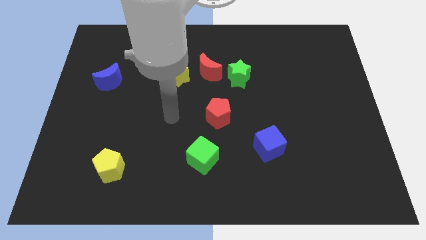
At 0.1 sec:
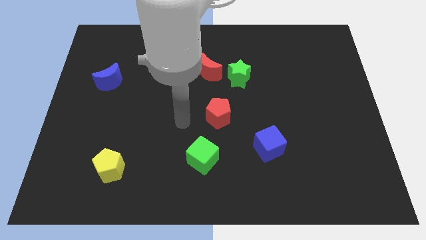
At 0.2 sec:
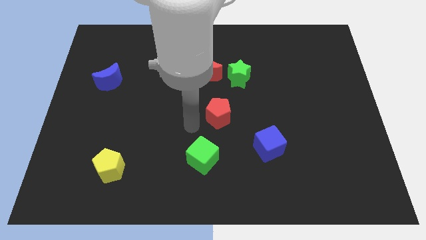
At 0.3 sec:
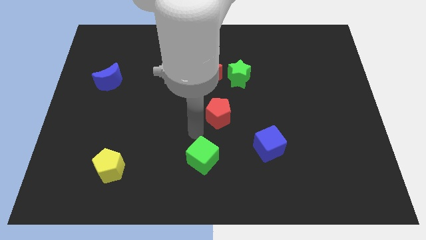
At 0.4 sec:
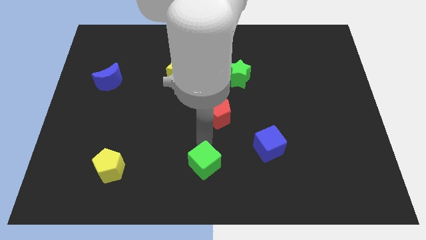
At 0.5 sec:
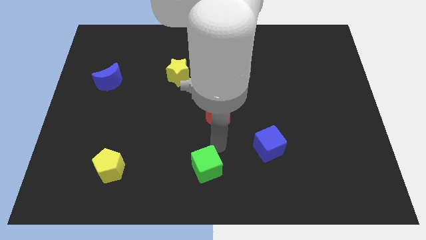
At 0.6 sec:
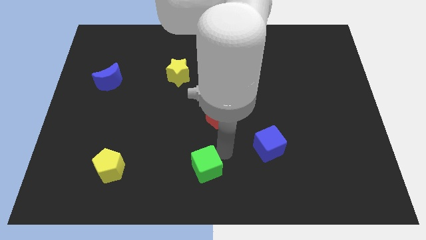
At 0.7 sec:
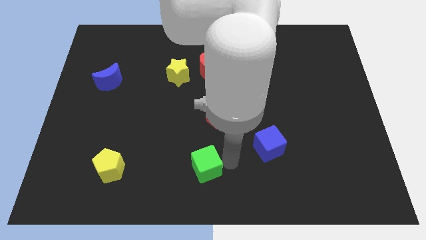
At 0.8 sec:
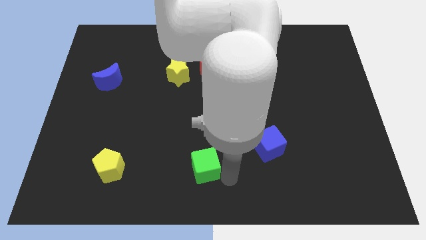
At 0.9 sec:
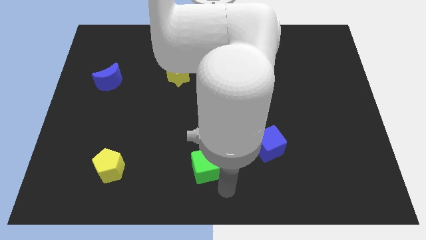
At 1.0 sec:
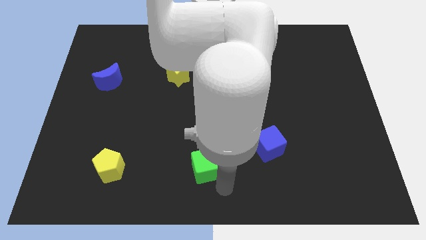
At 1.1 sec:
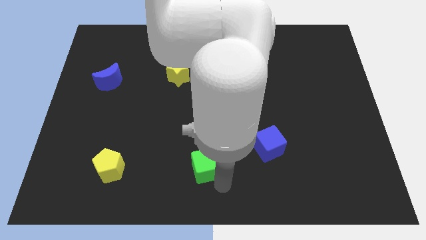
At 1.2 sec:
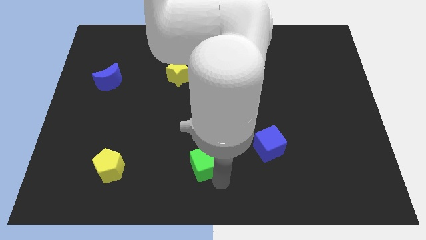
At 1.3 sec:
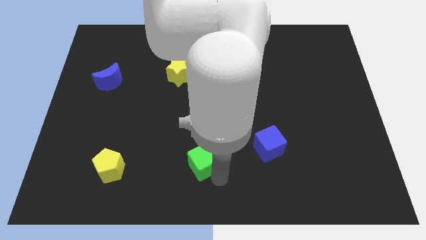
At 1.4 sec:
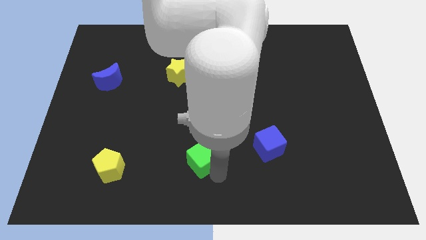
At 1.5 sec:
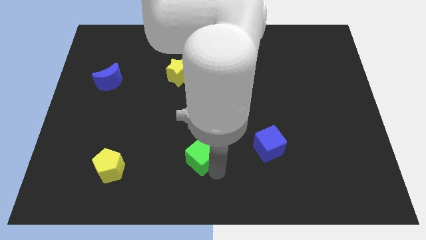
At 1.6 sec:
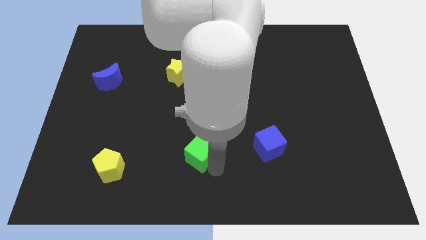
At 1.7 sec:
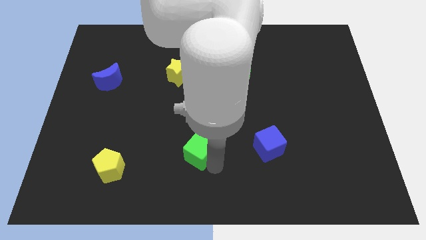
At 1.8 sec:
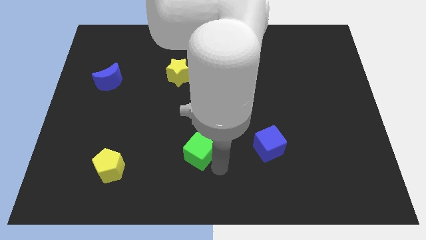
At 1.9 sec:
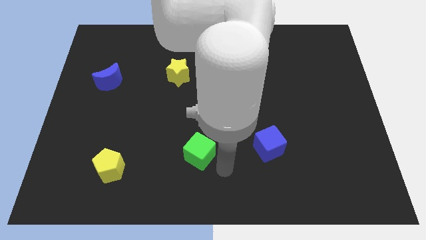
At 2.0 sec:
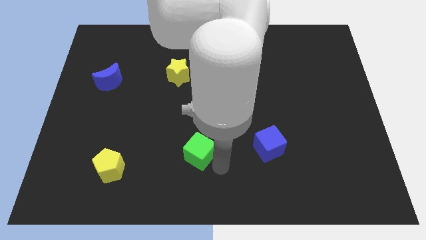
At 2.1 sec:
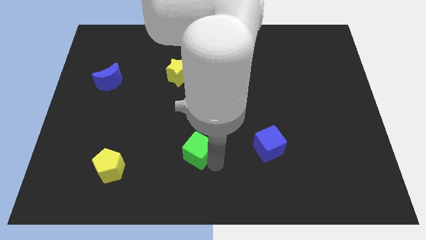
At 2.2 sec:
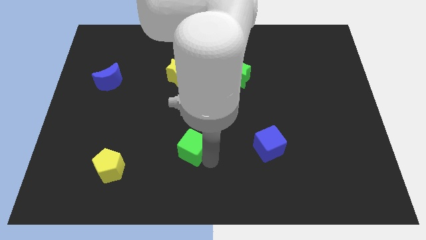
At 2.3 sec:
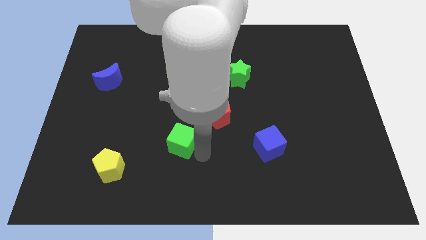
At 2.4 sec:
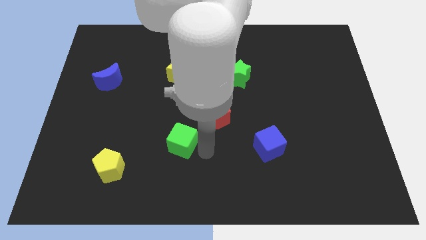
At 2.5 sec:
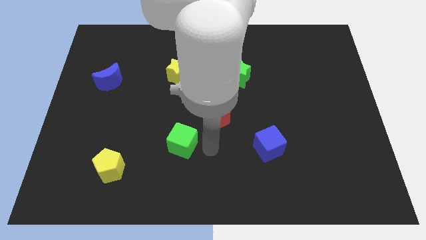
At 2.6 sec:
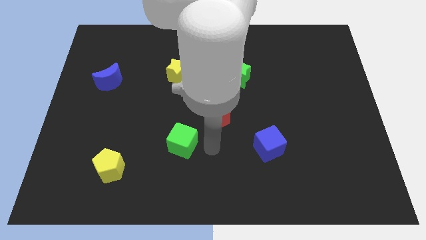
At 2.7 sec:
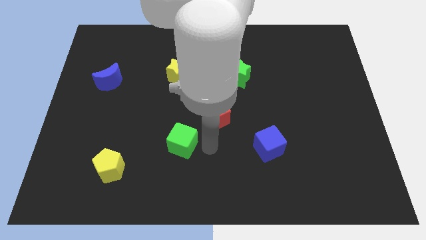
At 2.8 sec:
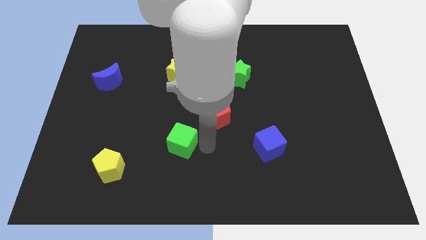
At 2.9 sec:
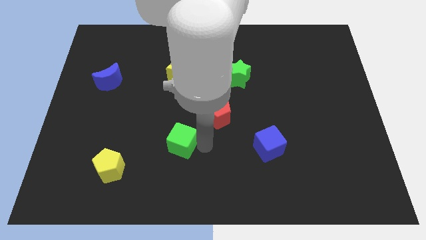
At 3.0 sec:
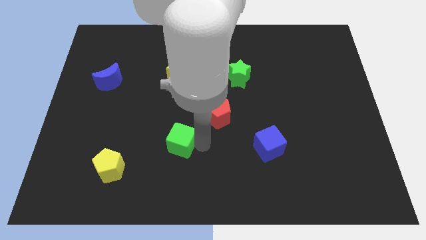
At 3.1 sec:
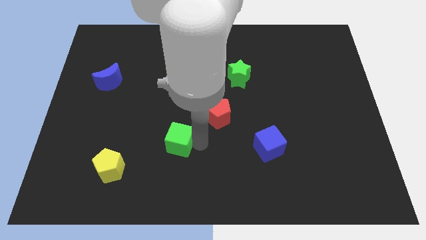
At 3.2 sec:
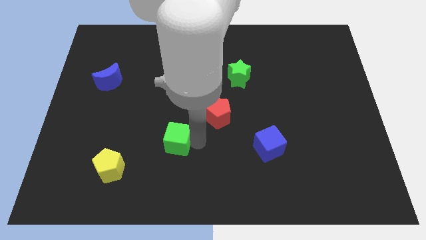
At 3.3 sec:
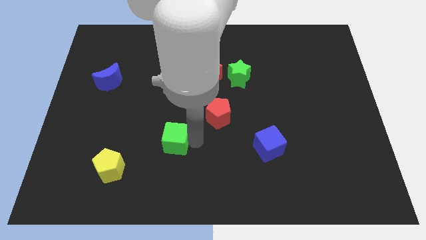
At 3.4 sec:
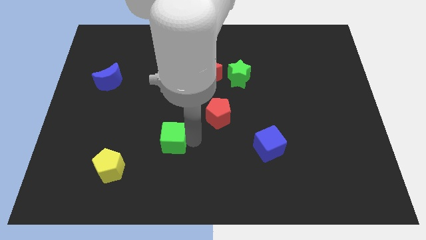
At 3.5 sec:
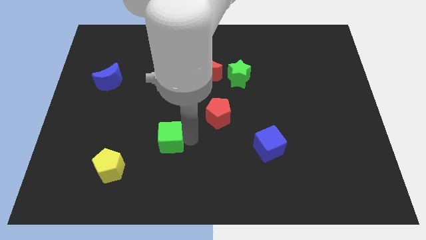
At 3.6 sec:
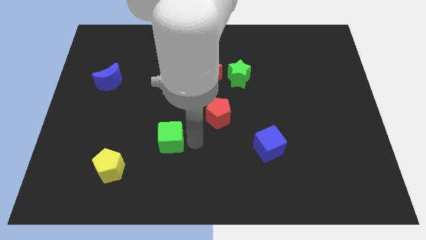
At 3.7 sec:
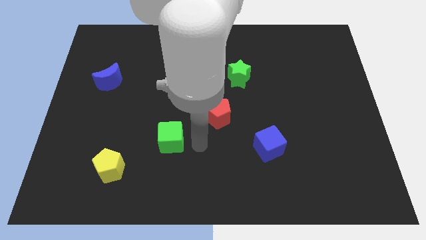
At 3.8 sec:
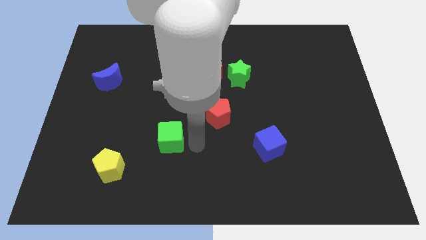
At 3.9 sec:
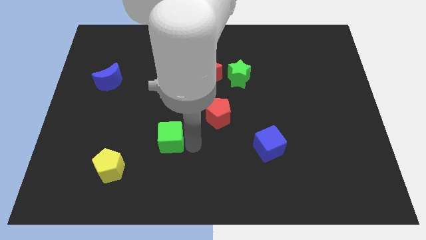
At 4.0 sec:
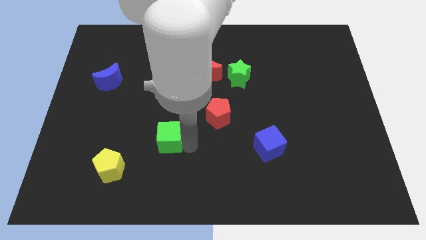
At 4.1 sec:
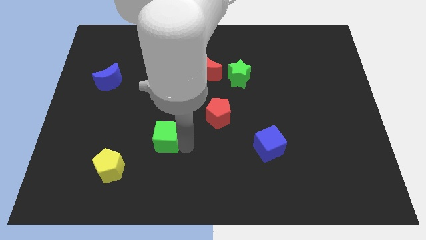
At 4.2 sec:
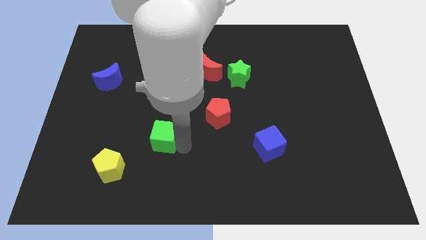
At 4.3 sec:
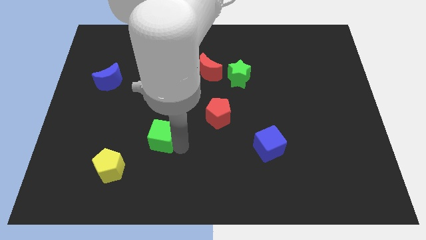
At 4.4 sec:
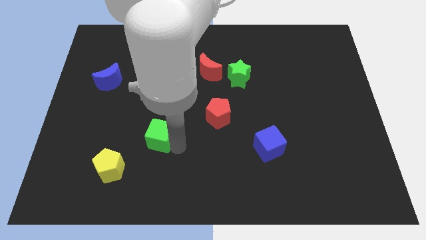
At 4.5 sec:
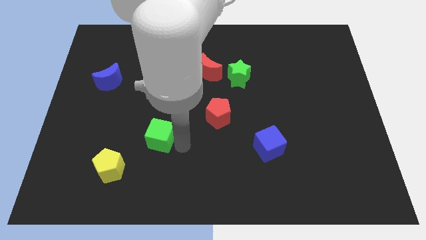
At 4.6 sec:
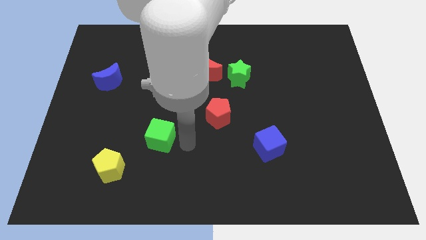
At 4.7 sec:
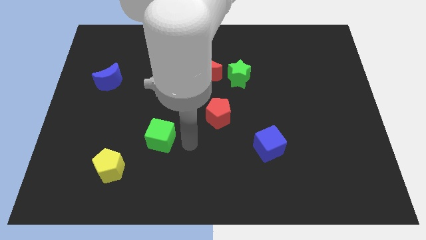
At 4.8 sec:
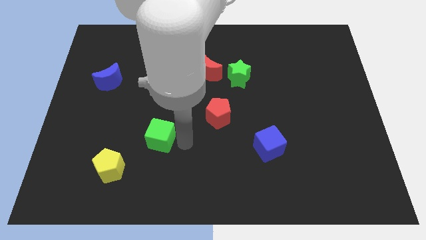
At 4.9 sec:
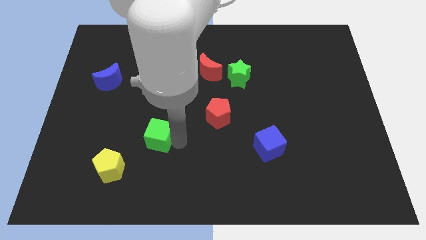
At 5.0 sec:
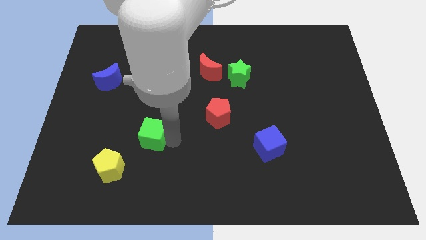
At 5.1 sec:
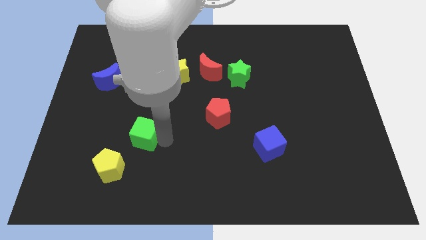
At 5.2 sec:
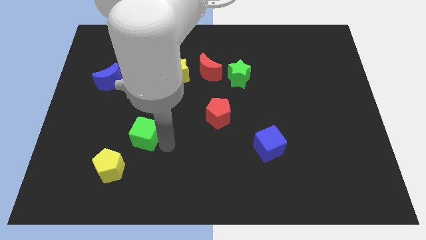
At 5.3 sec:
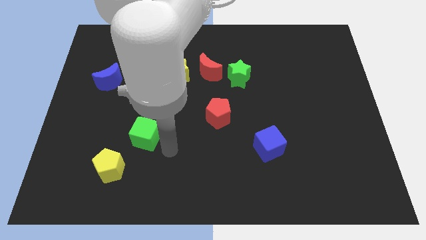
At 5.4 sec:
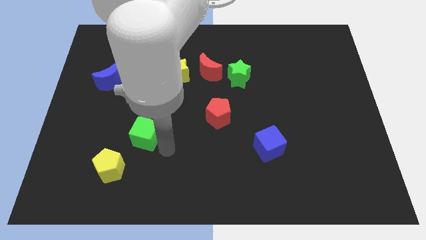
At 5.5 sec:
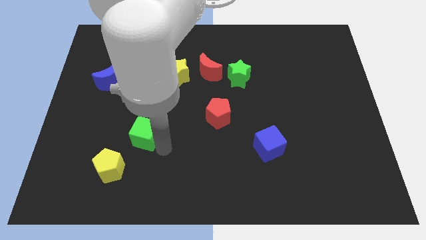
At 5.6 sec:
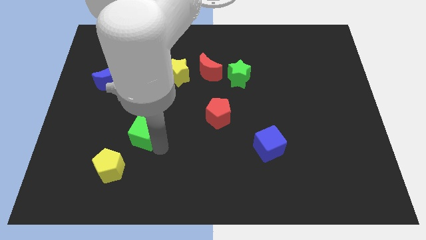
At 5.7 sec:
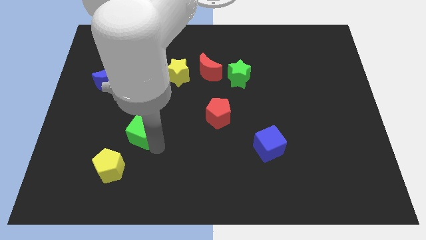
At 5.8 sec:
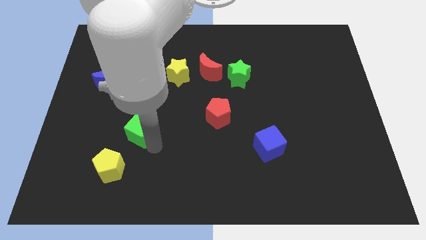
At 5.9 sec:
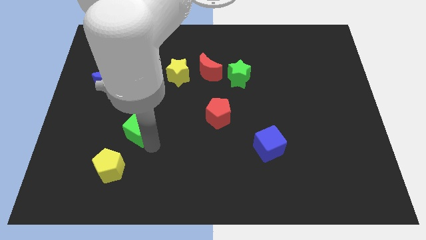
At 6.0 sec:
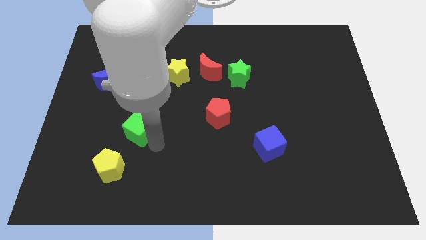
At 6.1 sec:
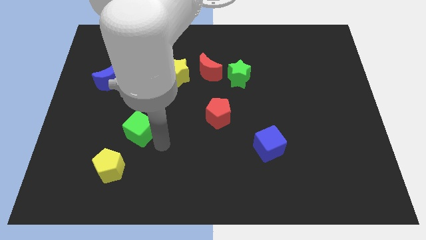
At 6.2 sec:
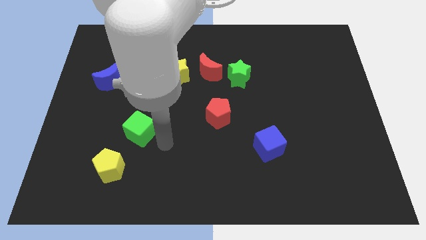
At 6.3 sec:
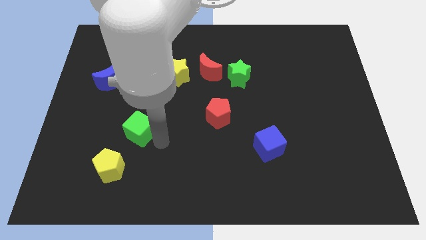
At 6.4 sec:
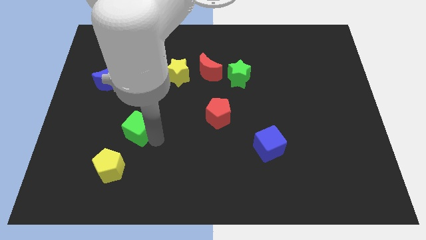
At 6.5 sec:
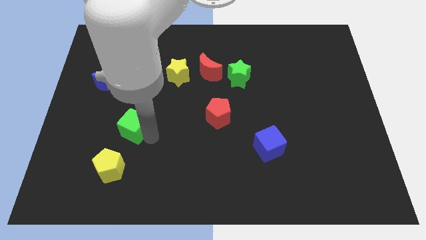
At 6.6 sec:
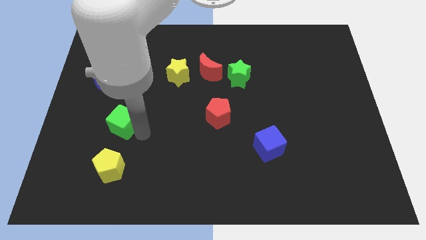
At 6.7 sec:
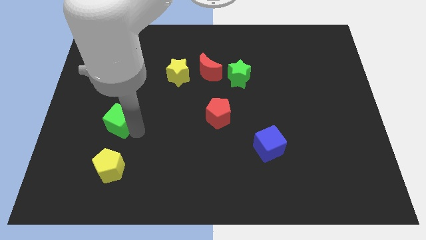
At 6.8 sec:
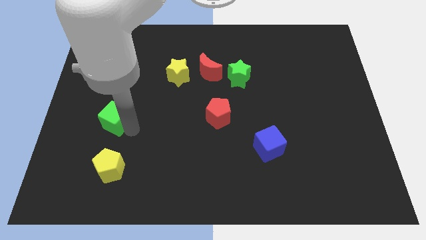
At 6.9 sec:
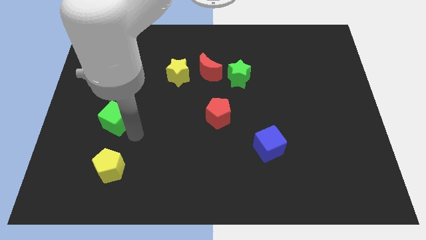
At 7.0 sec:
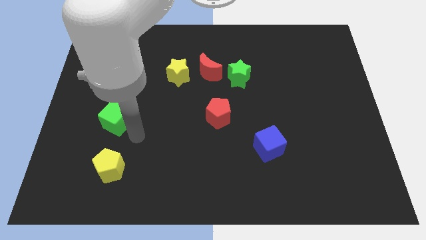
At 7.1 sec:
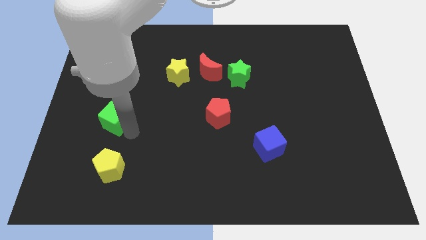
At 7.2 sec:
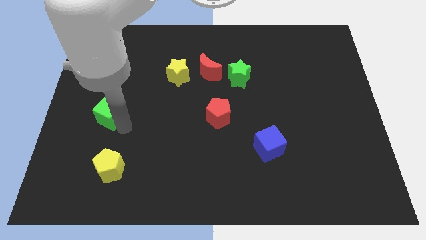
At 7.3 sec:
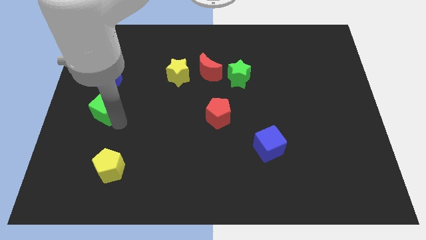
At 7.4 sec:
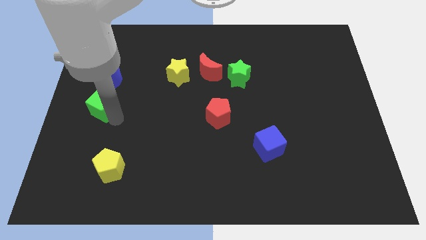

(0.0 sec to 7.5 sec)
slide the green cube to the left side of the board
